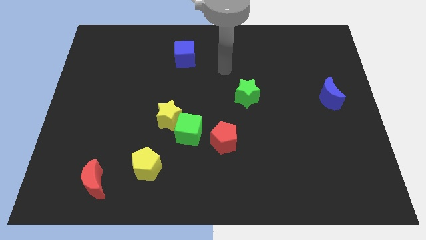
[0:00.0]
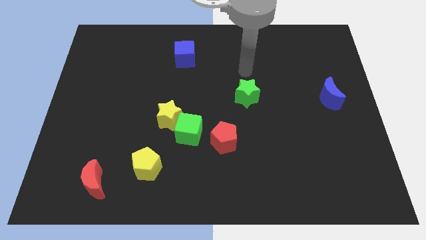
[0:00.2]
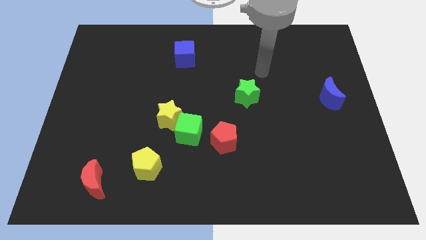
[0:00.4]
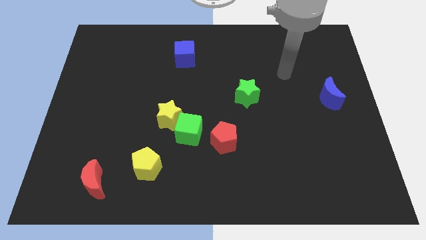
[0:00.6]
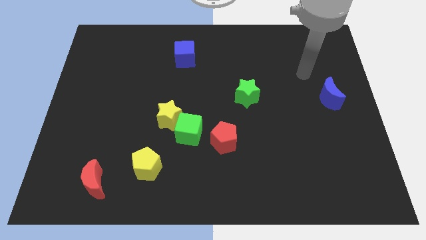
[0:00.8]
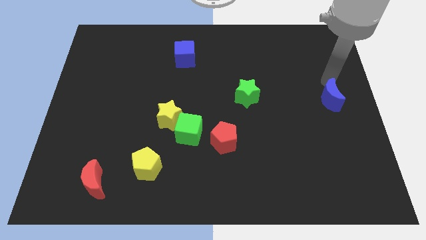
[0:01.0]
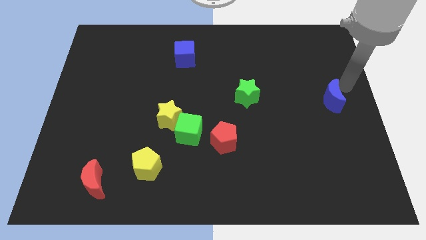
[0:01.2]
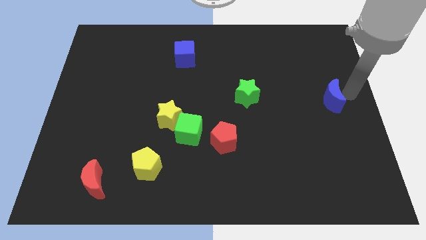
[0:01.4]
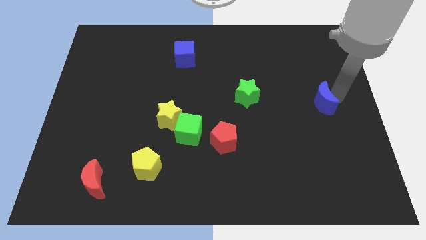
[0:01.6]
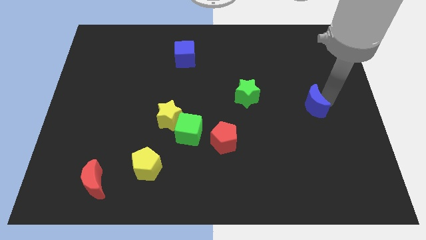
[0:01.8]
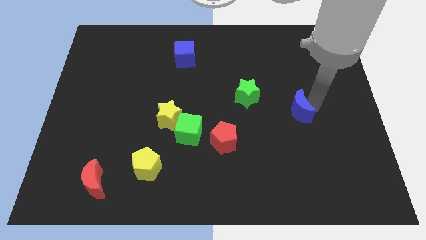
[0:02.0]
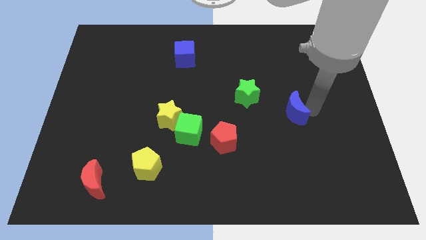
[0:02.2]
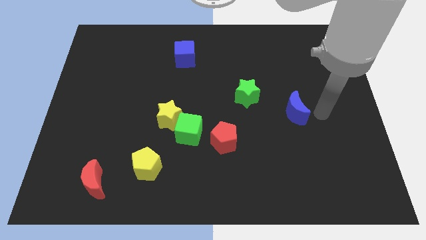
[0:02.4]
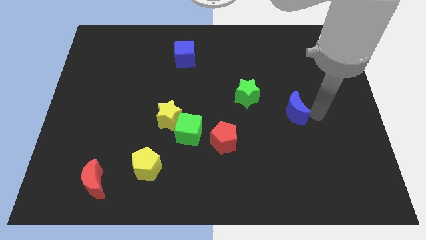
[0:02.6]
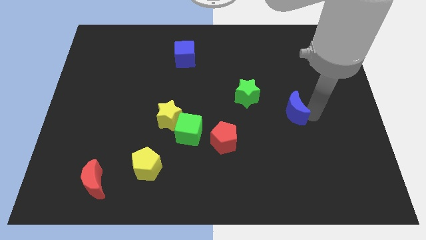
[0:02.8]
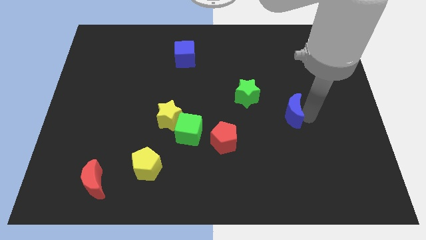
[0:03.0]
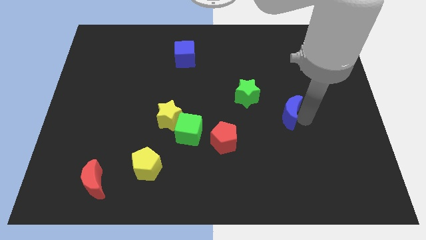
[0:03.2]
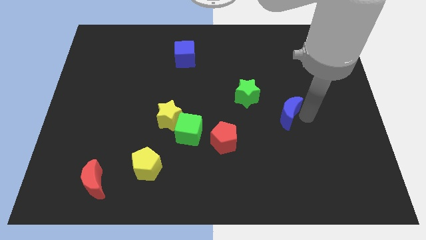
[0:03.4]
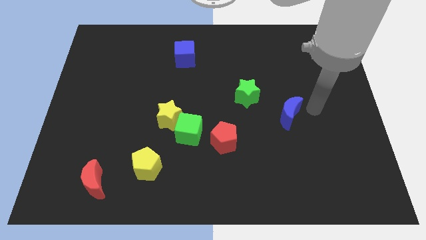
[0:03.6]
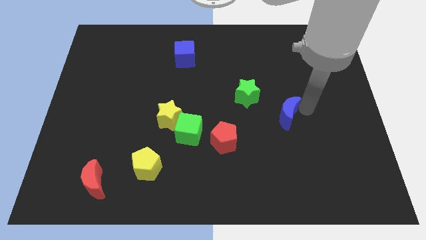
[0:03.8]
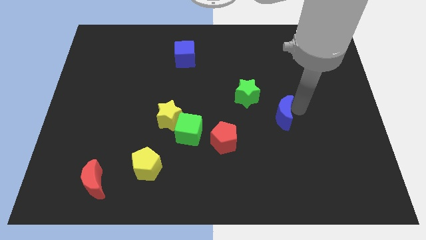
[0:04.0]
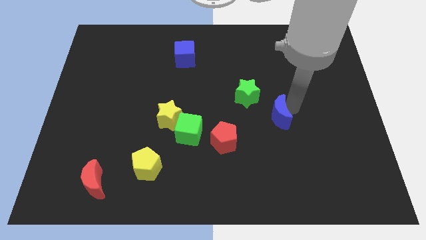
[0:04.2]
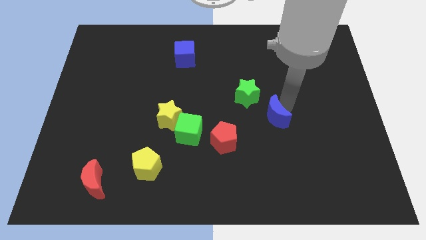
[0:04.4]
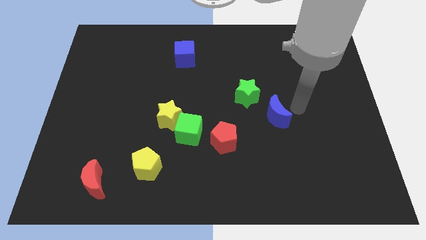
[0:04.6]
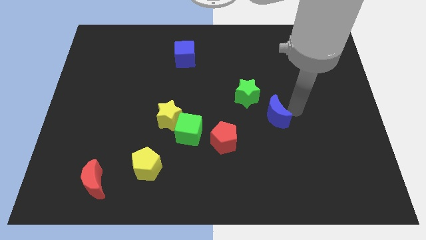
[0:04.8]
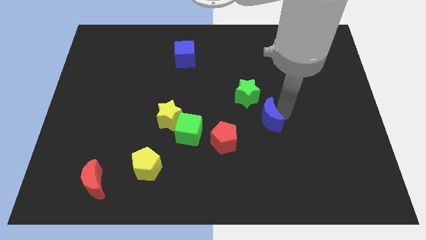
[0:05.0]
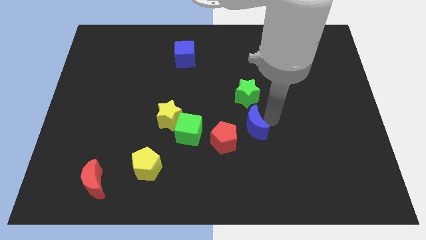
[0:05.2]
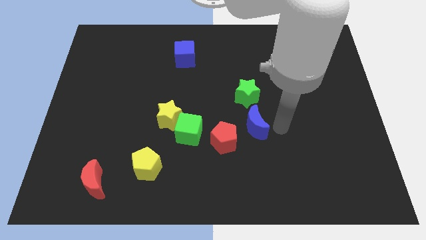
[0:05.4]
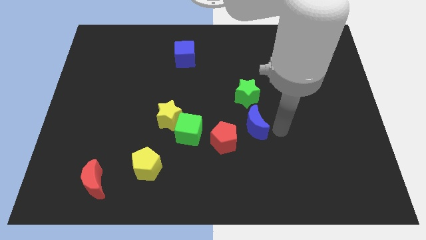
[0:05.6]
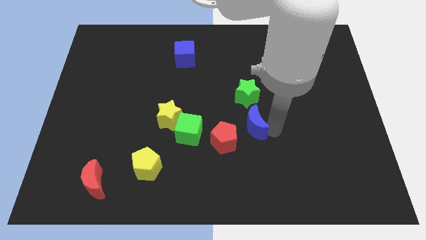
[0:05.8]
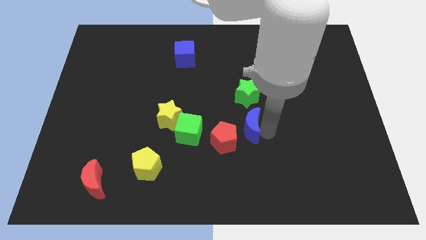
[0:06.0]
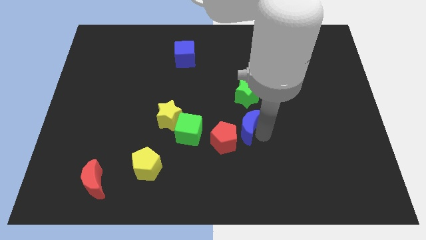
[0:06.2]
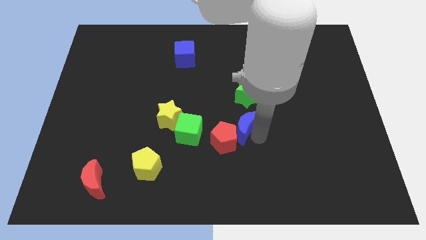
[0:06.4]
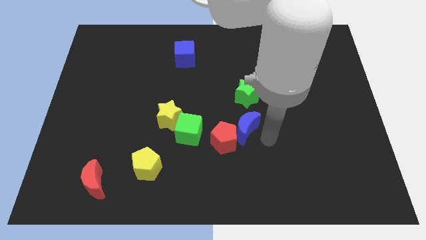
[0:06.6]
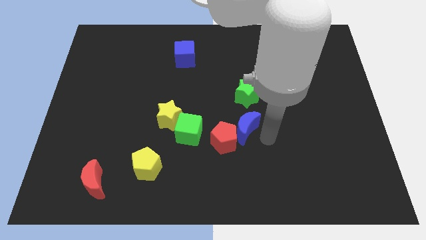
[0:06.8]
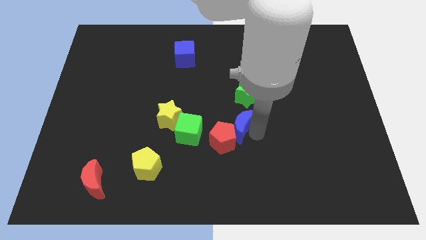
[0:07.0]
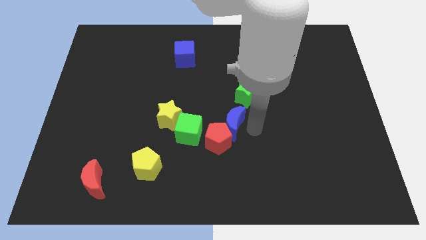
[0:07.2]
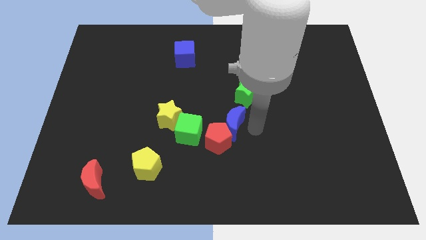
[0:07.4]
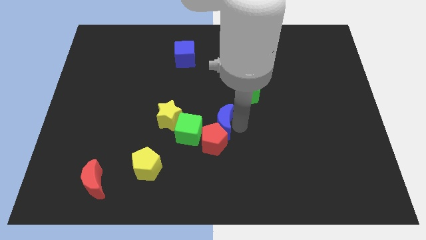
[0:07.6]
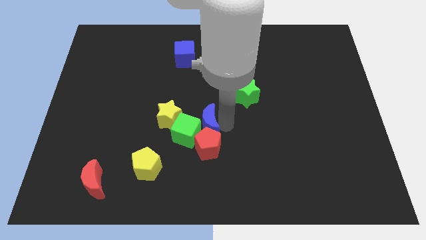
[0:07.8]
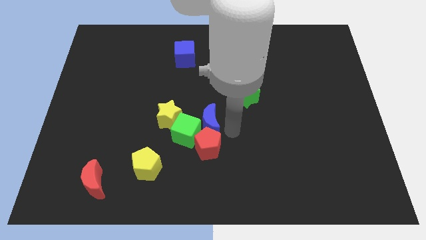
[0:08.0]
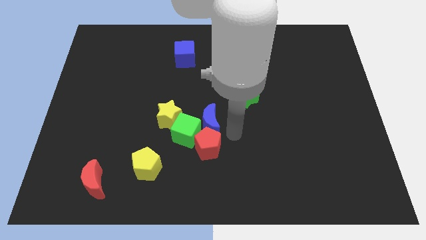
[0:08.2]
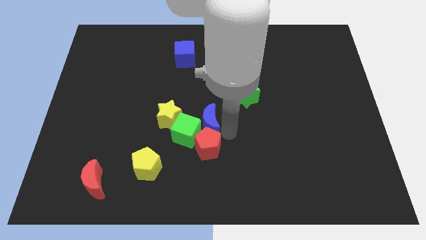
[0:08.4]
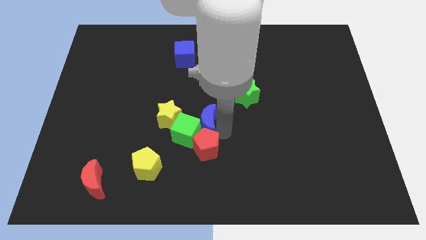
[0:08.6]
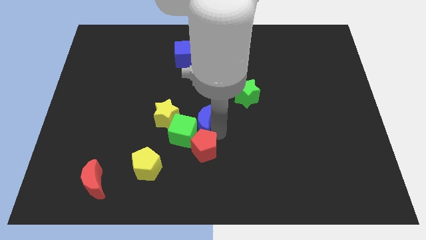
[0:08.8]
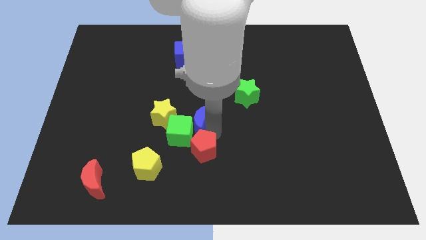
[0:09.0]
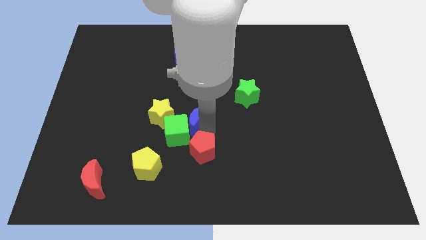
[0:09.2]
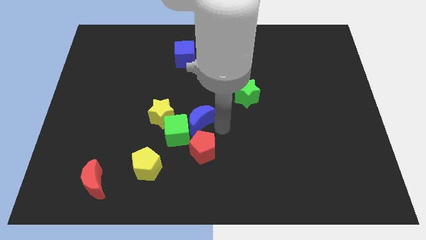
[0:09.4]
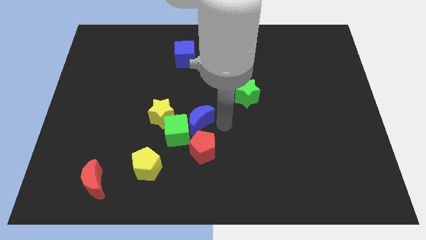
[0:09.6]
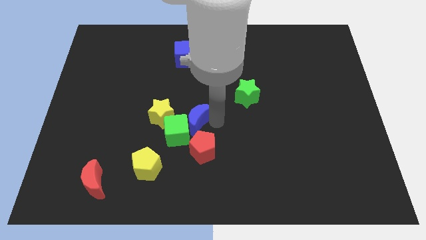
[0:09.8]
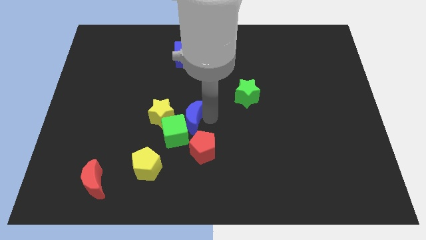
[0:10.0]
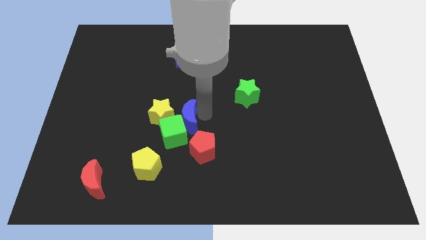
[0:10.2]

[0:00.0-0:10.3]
push the blue moon next to the yellow star

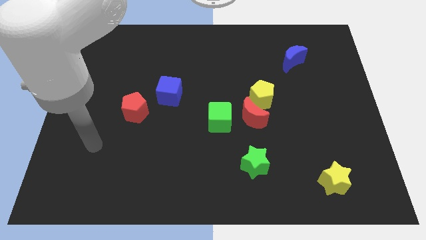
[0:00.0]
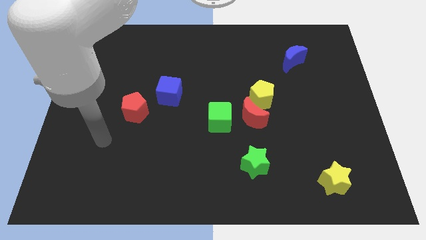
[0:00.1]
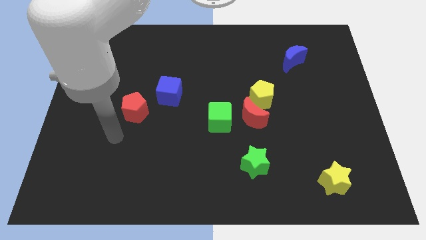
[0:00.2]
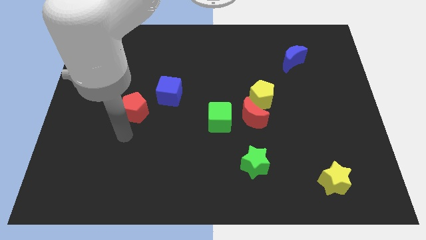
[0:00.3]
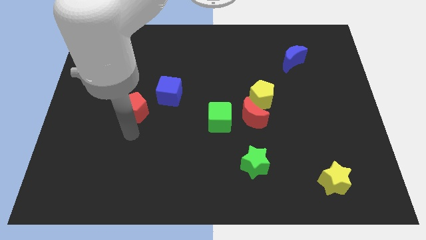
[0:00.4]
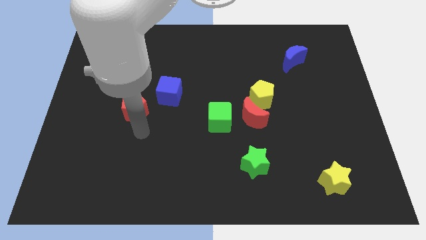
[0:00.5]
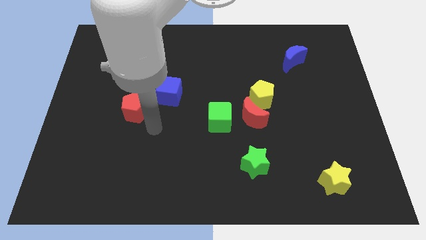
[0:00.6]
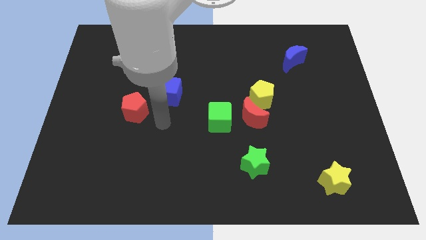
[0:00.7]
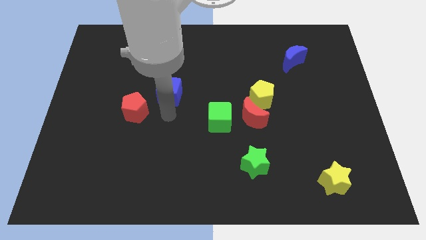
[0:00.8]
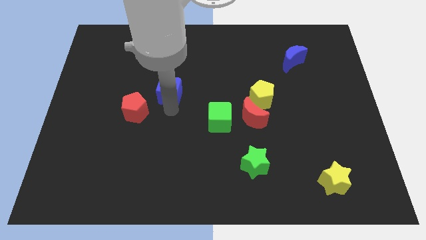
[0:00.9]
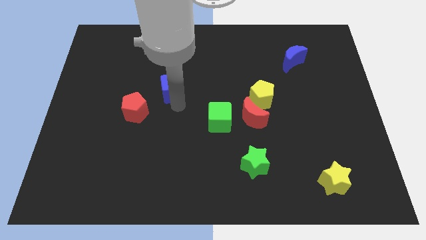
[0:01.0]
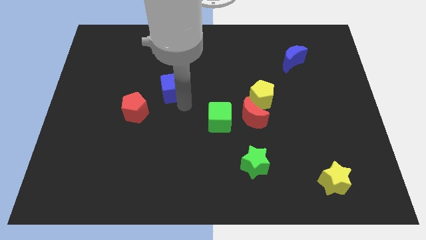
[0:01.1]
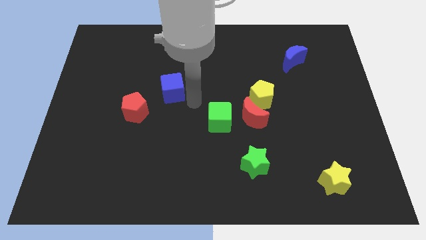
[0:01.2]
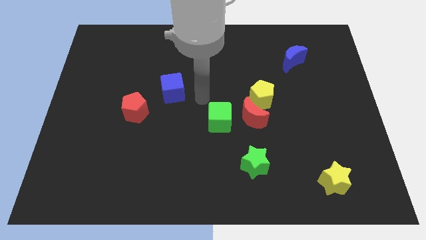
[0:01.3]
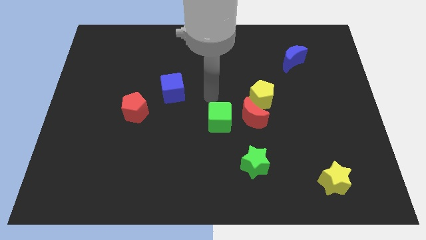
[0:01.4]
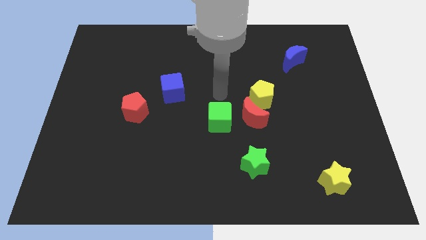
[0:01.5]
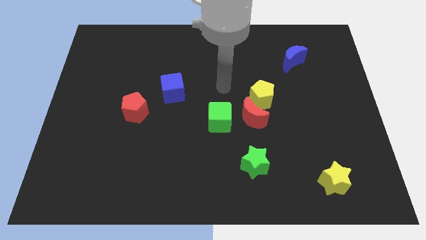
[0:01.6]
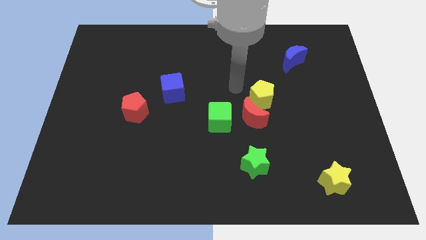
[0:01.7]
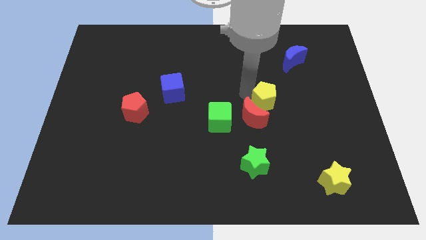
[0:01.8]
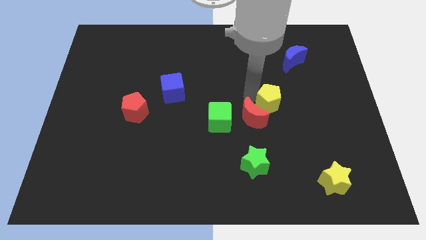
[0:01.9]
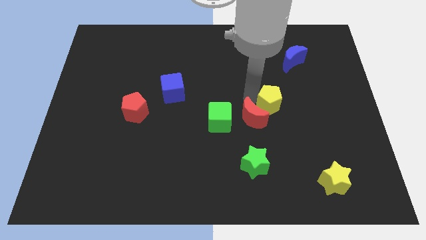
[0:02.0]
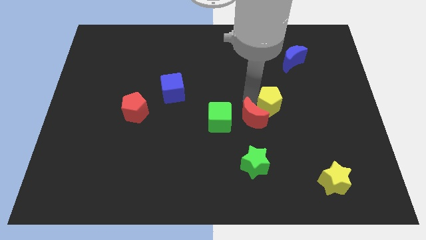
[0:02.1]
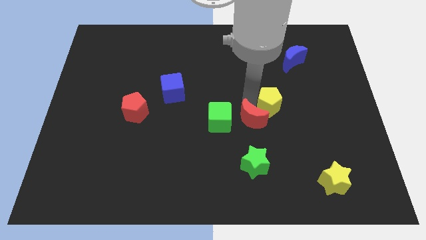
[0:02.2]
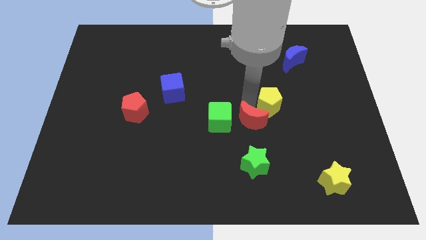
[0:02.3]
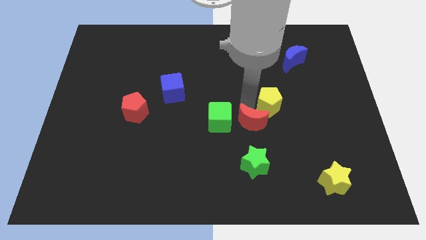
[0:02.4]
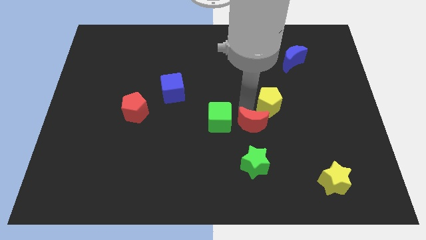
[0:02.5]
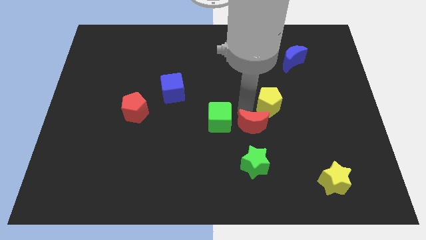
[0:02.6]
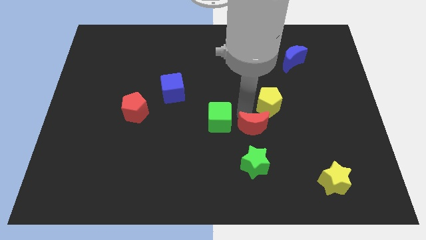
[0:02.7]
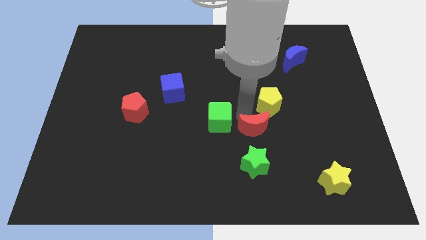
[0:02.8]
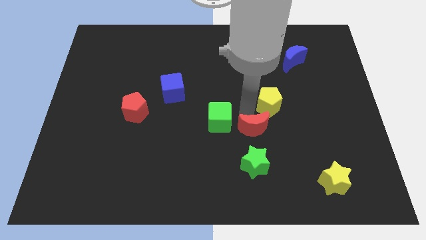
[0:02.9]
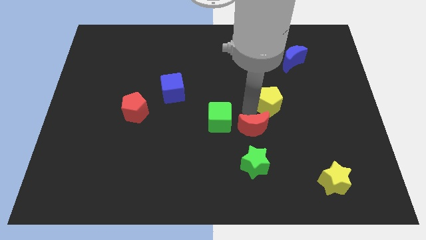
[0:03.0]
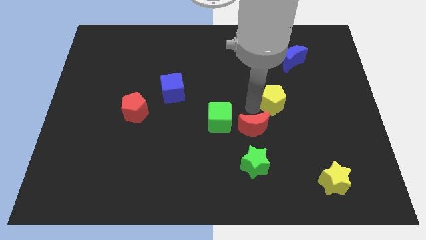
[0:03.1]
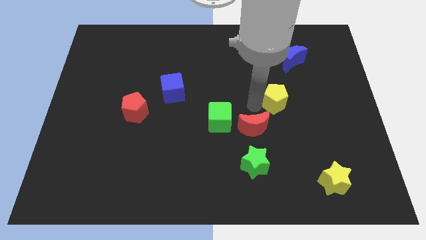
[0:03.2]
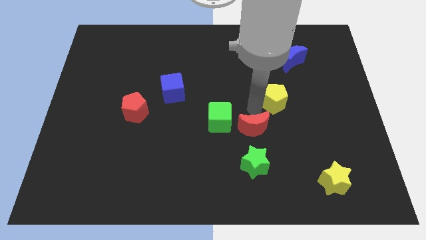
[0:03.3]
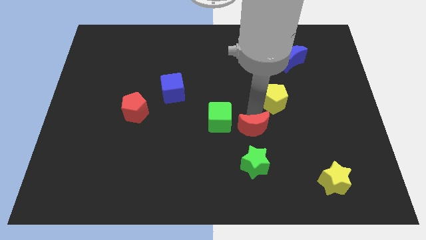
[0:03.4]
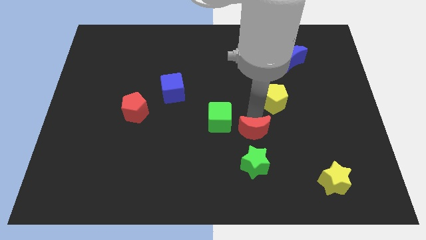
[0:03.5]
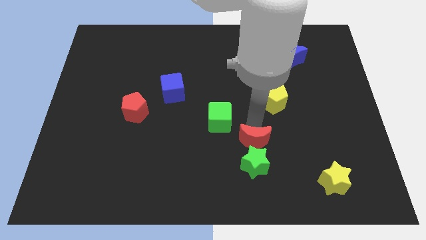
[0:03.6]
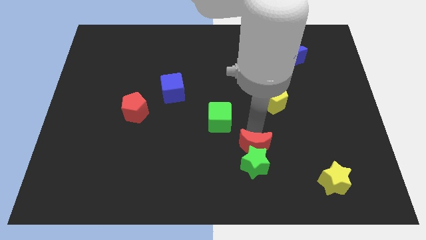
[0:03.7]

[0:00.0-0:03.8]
push the red moon to the green star
